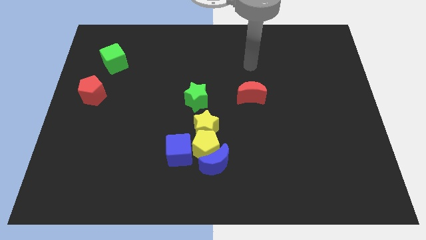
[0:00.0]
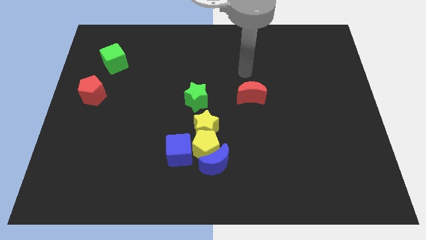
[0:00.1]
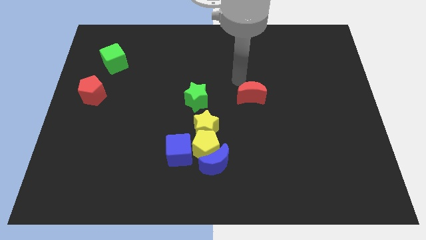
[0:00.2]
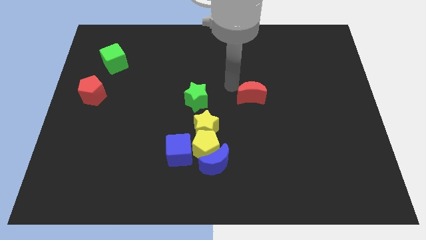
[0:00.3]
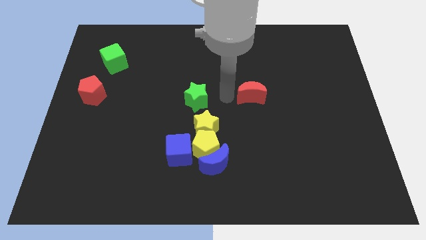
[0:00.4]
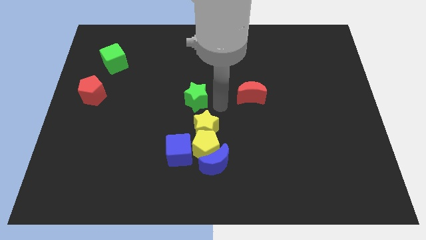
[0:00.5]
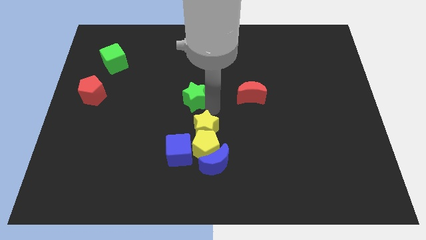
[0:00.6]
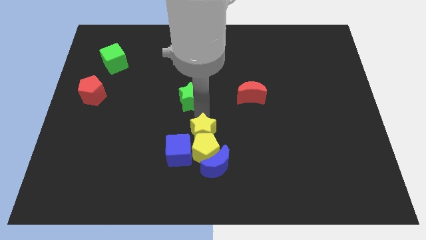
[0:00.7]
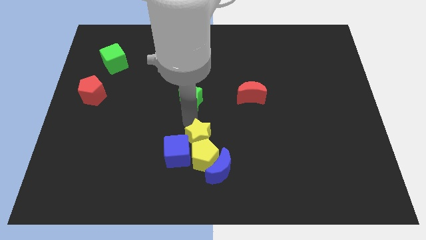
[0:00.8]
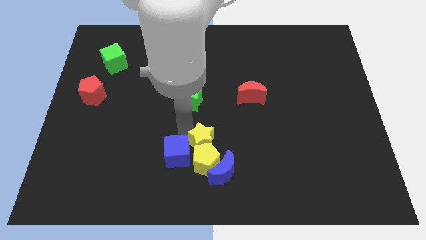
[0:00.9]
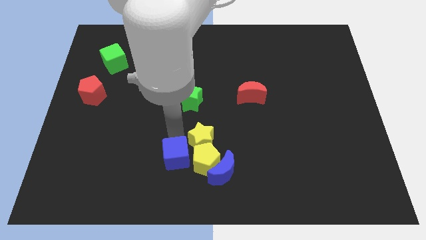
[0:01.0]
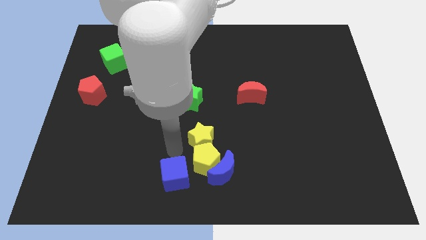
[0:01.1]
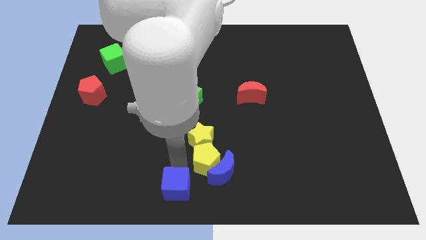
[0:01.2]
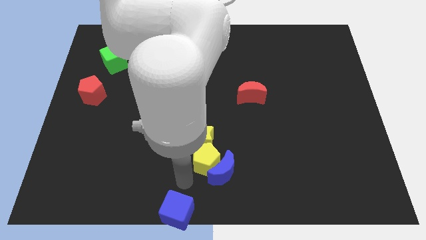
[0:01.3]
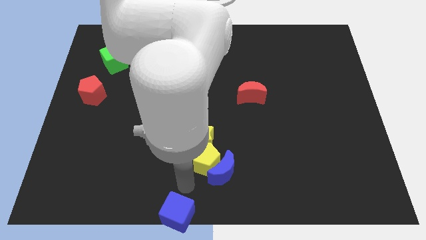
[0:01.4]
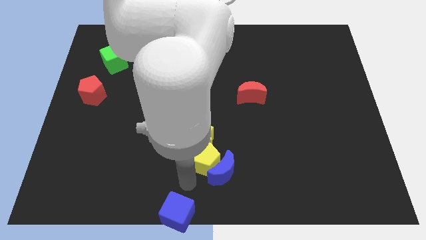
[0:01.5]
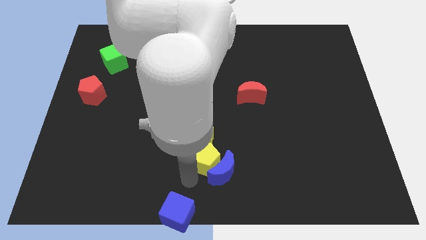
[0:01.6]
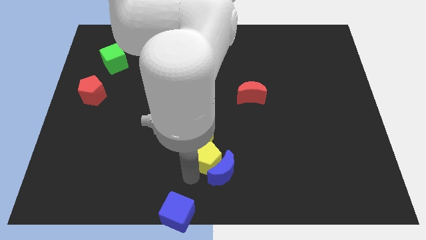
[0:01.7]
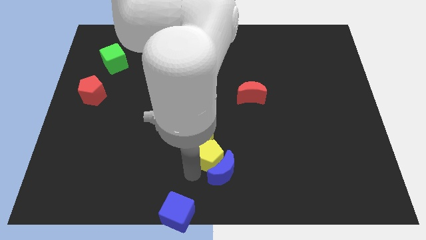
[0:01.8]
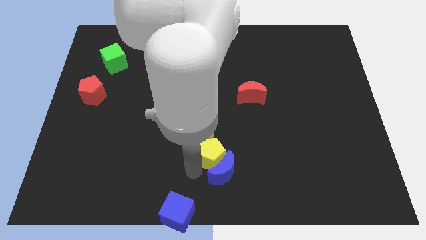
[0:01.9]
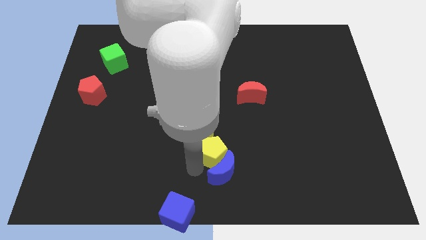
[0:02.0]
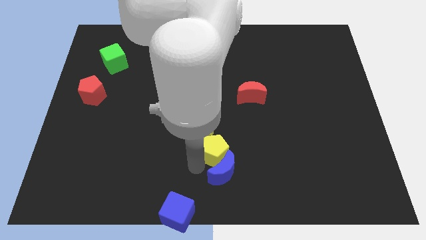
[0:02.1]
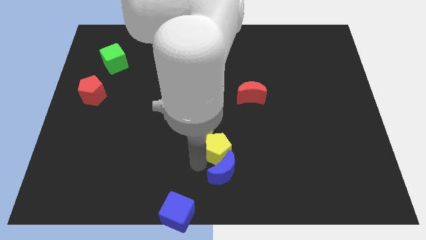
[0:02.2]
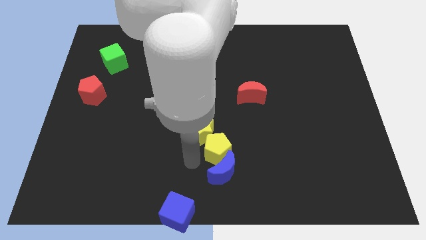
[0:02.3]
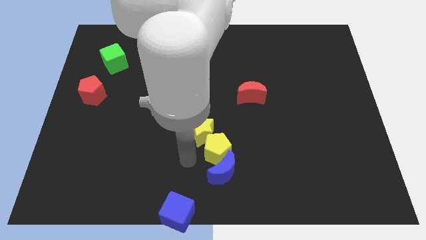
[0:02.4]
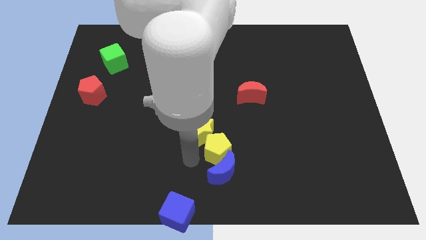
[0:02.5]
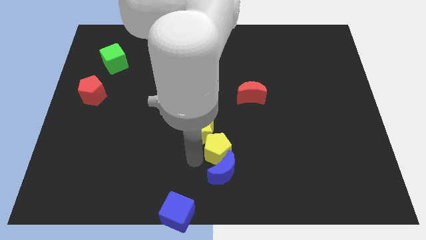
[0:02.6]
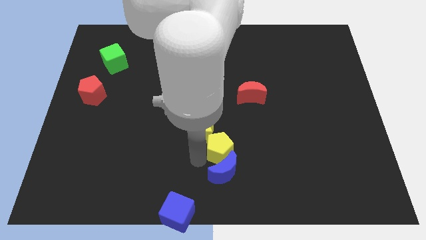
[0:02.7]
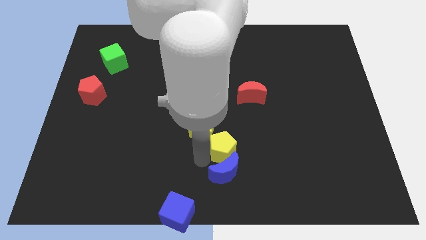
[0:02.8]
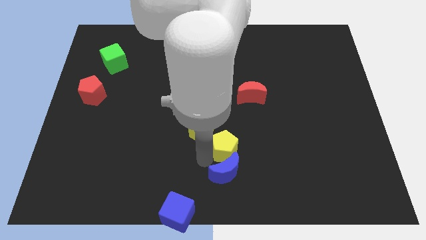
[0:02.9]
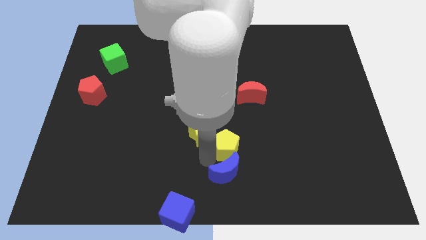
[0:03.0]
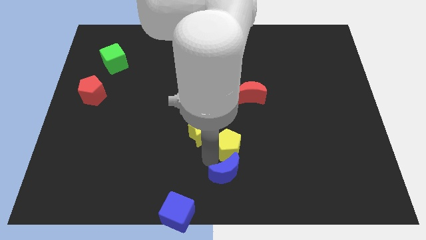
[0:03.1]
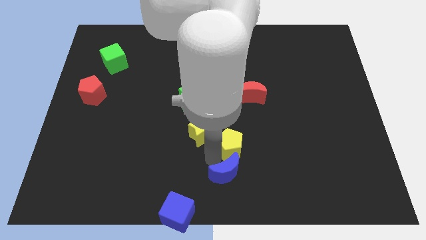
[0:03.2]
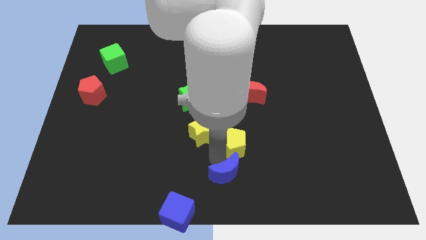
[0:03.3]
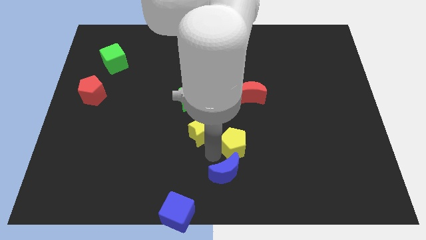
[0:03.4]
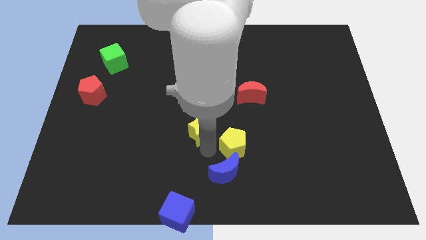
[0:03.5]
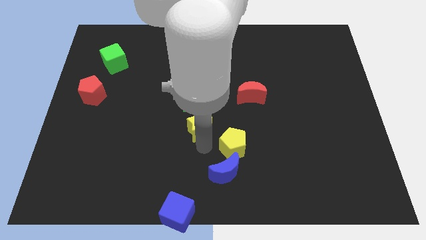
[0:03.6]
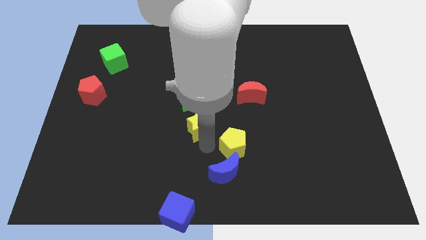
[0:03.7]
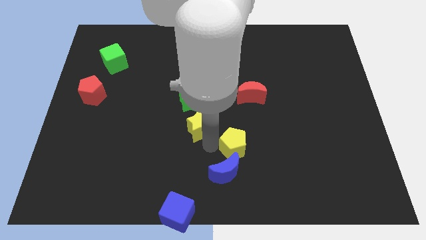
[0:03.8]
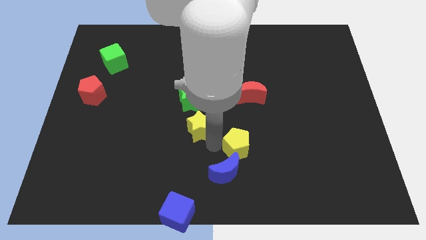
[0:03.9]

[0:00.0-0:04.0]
move the yellow pentagon to the right a bit

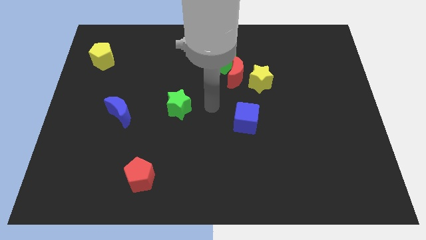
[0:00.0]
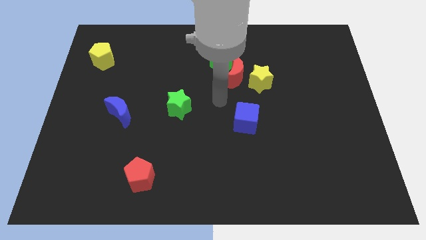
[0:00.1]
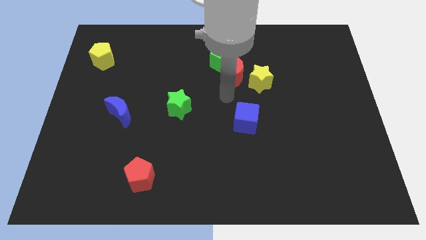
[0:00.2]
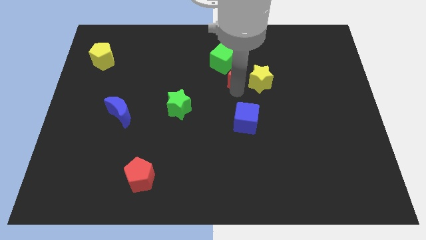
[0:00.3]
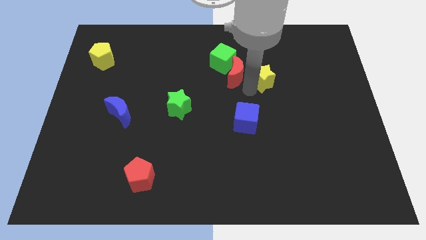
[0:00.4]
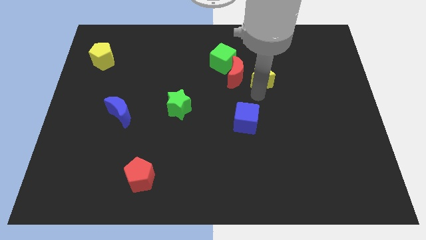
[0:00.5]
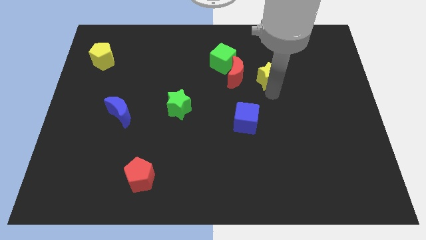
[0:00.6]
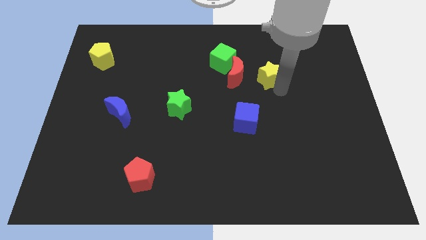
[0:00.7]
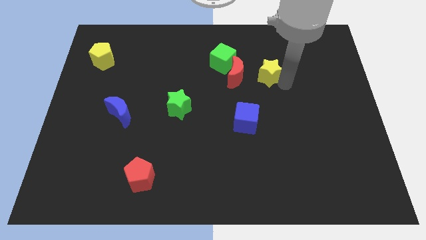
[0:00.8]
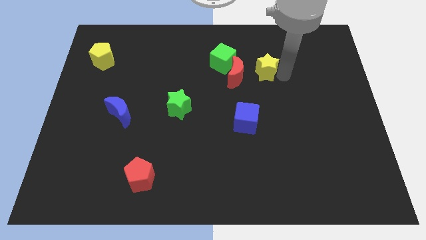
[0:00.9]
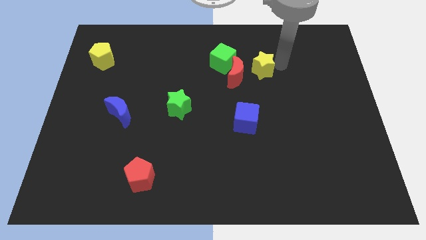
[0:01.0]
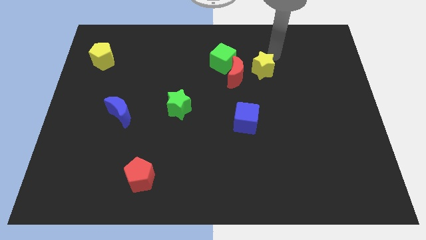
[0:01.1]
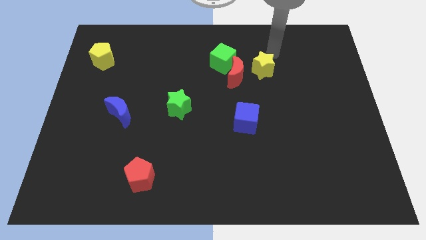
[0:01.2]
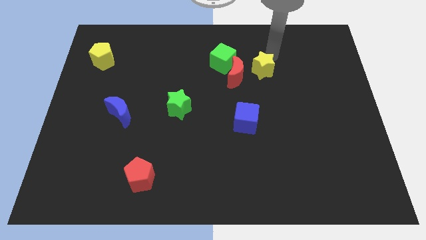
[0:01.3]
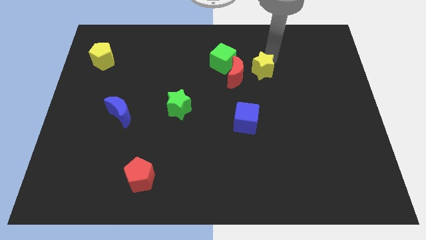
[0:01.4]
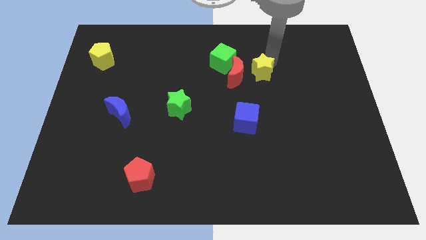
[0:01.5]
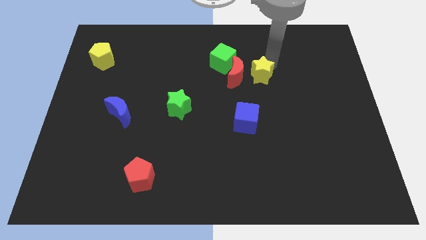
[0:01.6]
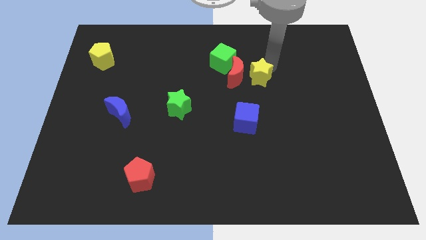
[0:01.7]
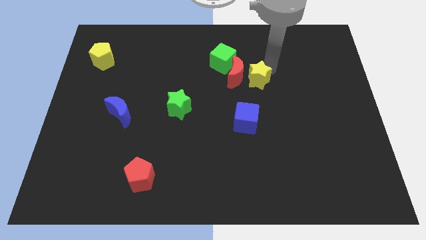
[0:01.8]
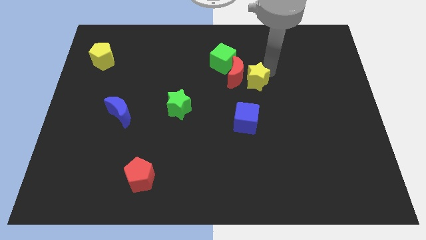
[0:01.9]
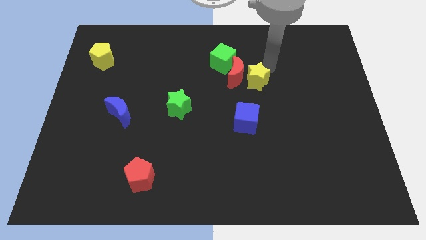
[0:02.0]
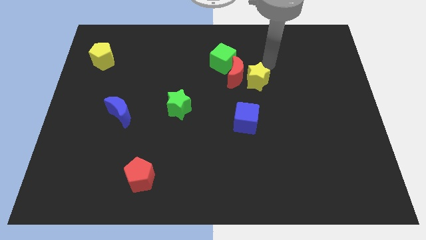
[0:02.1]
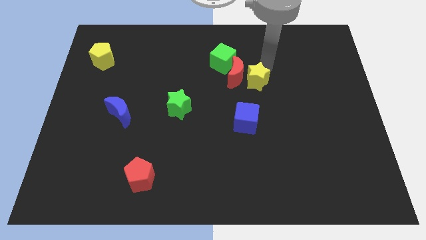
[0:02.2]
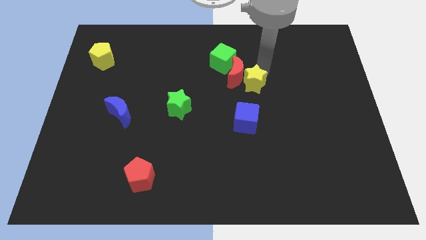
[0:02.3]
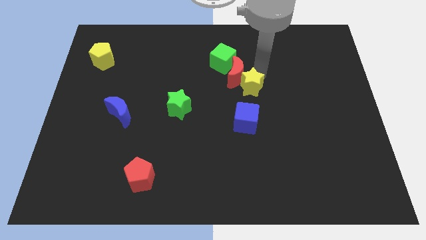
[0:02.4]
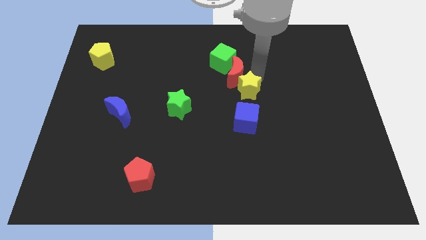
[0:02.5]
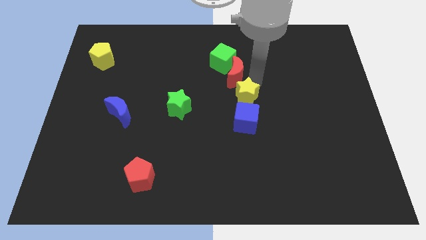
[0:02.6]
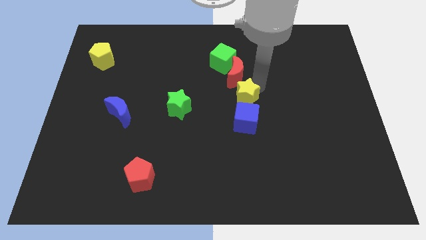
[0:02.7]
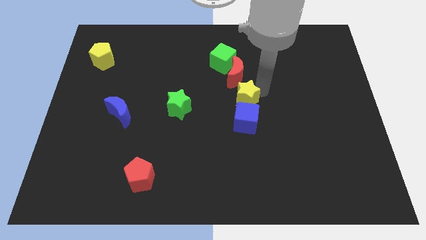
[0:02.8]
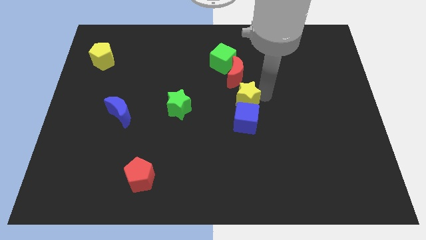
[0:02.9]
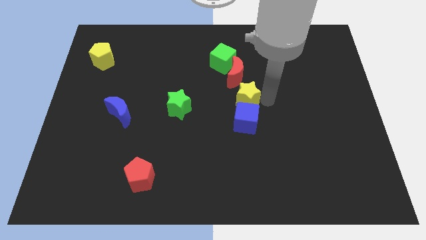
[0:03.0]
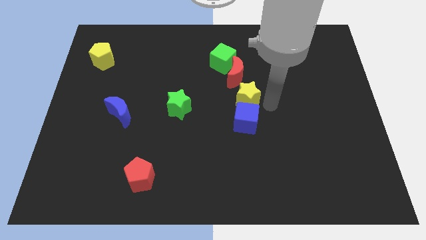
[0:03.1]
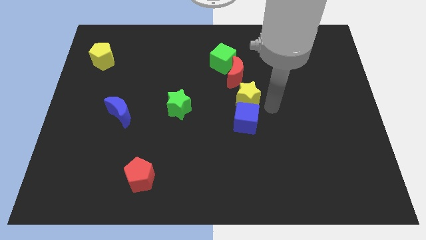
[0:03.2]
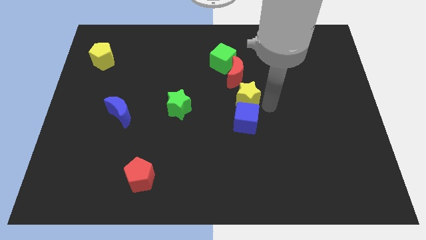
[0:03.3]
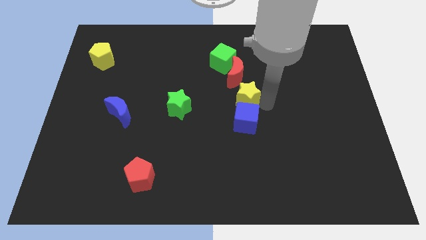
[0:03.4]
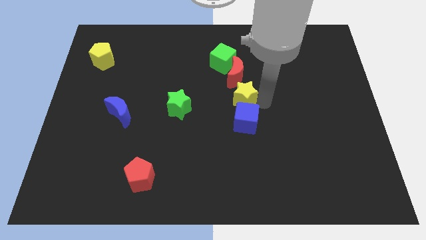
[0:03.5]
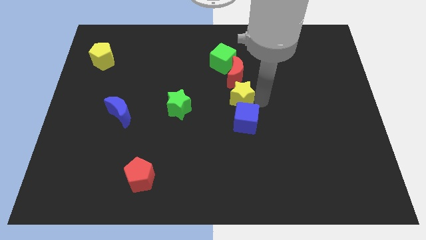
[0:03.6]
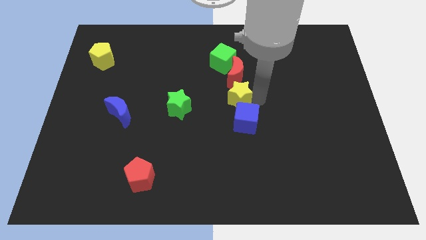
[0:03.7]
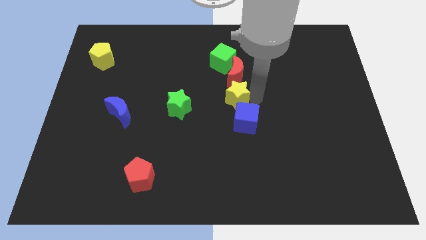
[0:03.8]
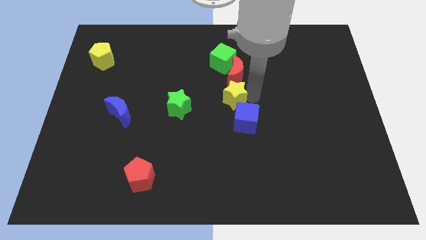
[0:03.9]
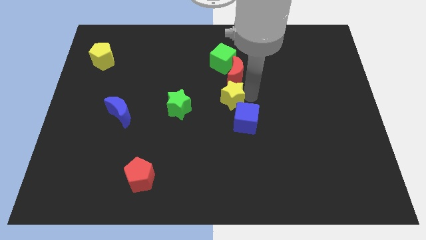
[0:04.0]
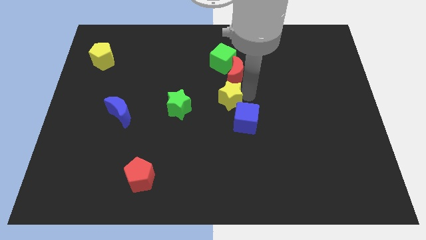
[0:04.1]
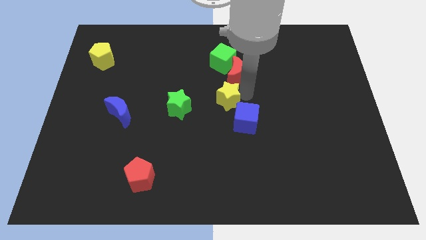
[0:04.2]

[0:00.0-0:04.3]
move the yellow star to the left a little bit
